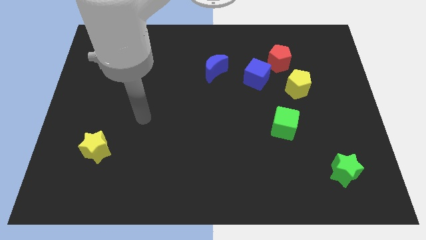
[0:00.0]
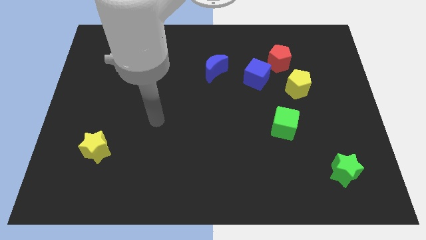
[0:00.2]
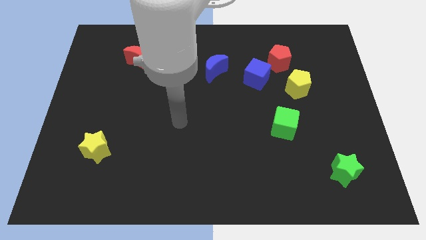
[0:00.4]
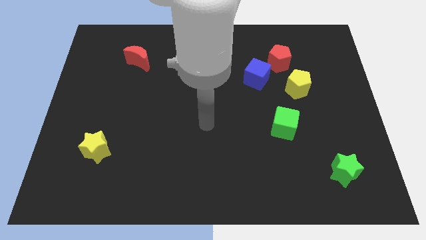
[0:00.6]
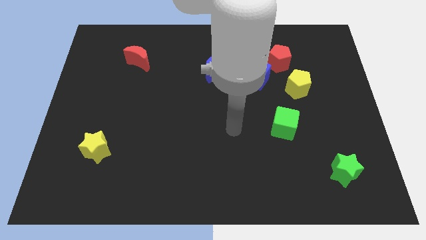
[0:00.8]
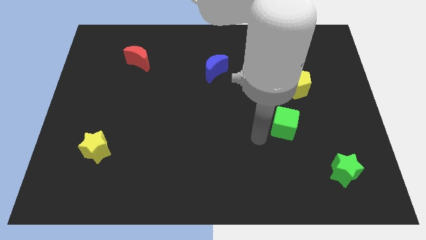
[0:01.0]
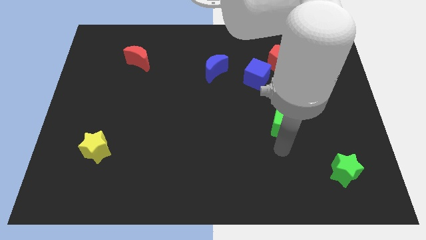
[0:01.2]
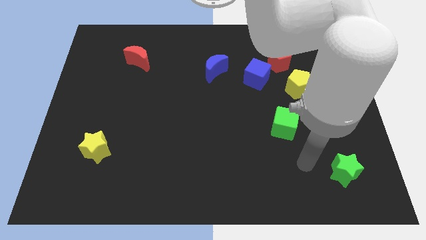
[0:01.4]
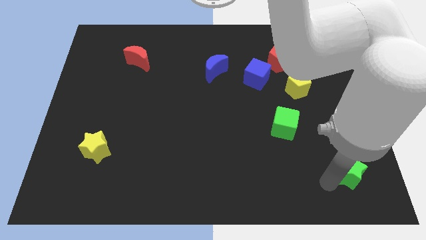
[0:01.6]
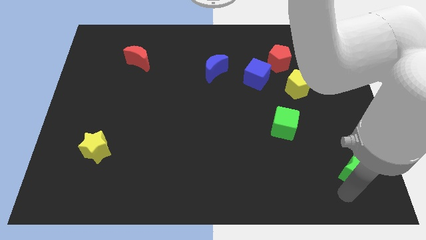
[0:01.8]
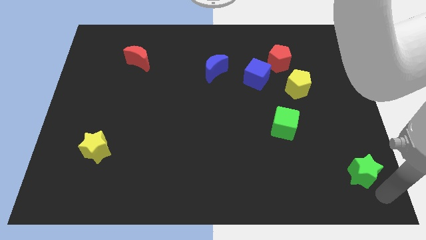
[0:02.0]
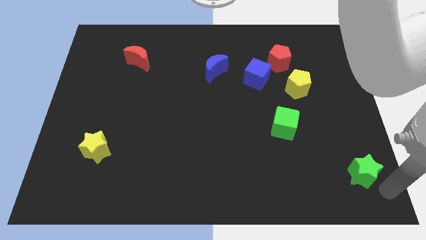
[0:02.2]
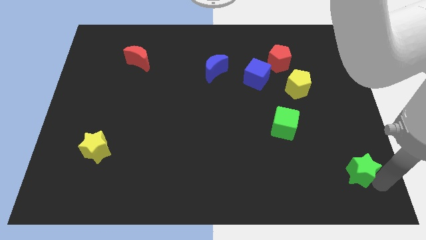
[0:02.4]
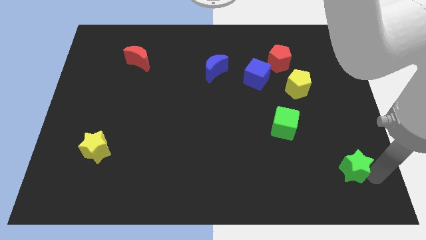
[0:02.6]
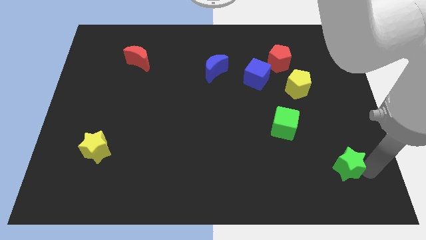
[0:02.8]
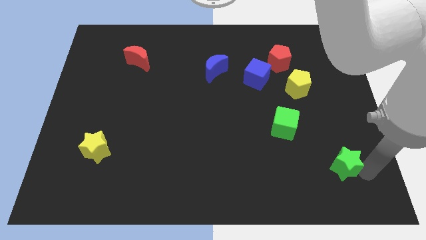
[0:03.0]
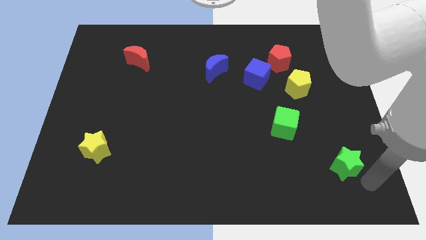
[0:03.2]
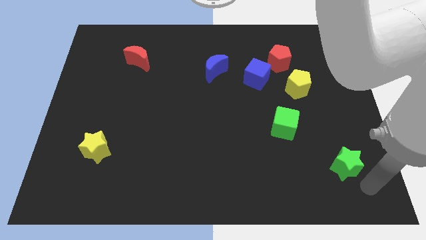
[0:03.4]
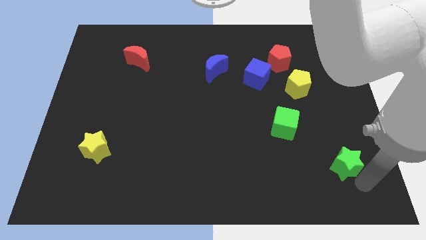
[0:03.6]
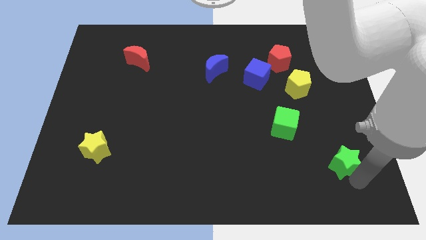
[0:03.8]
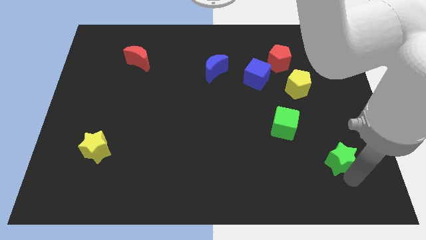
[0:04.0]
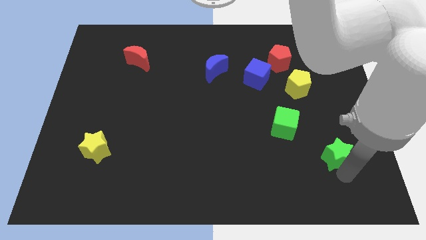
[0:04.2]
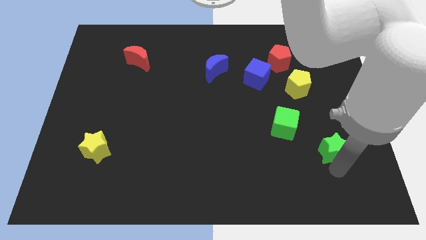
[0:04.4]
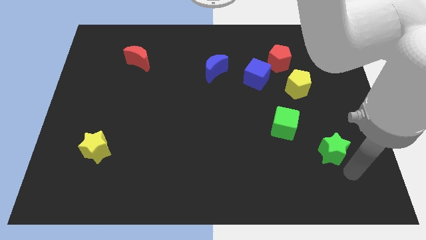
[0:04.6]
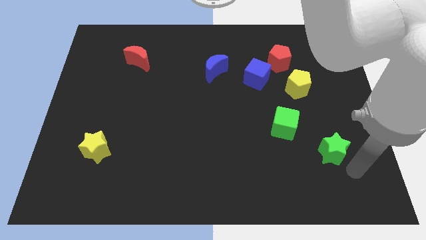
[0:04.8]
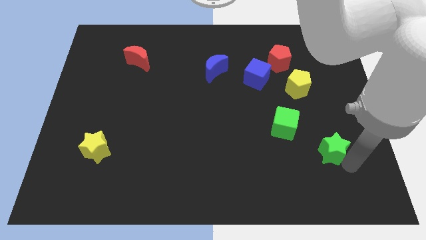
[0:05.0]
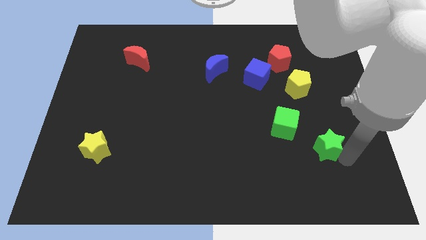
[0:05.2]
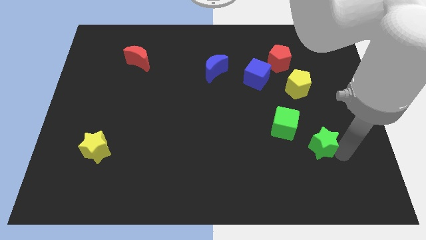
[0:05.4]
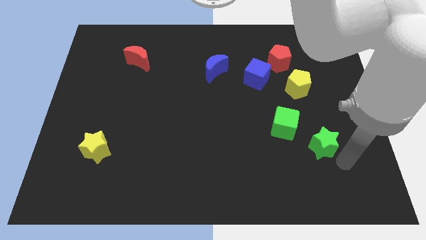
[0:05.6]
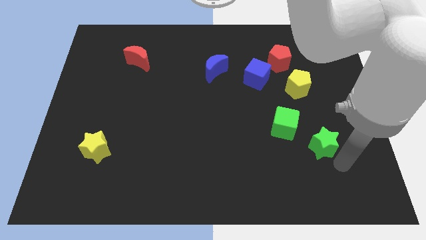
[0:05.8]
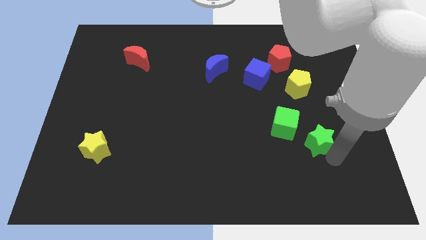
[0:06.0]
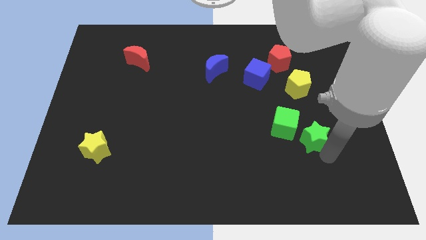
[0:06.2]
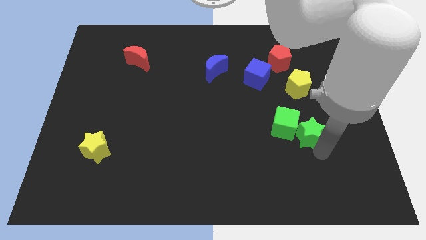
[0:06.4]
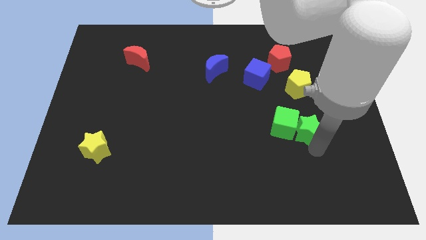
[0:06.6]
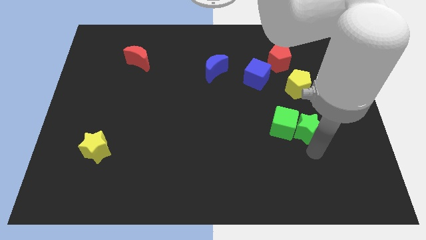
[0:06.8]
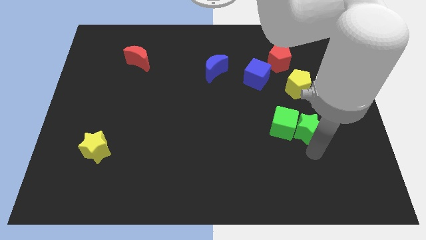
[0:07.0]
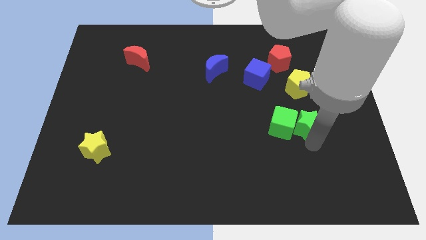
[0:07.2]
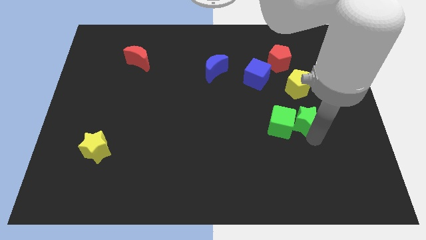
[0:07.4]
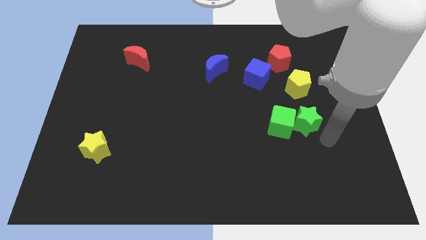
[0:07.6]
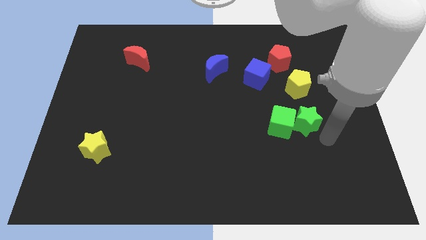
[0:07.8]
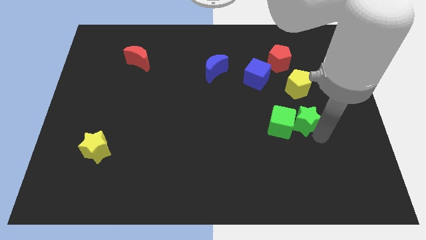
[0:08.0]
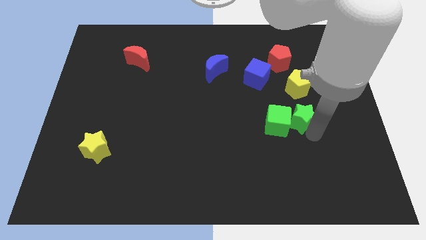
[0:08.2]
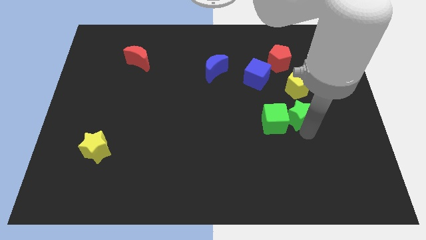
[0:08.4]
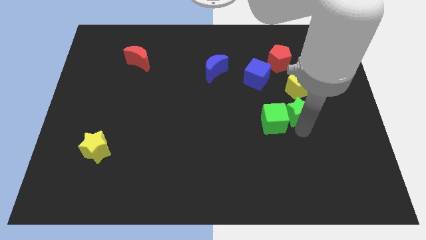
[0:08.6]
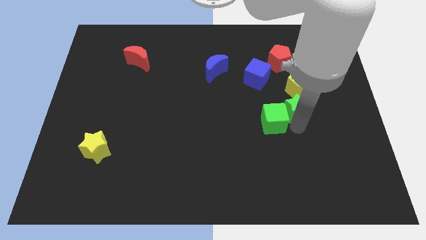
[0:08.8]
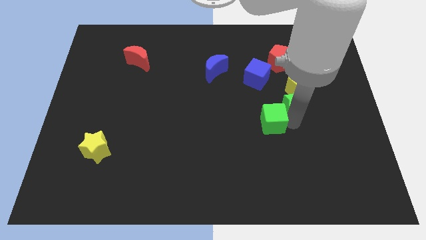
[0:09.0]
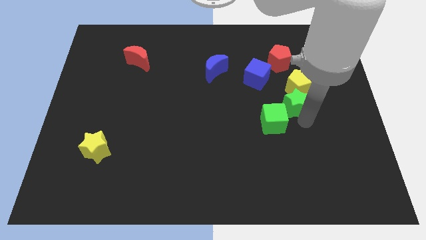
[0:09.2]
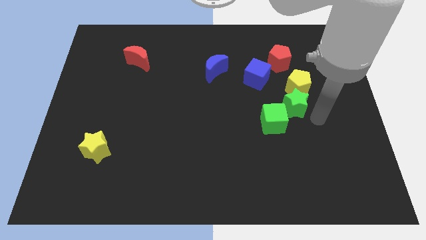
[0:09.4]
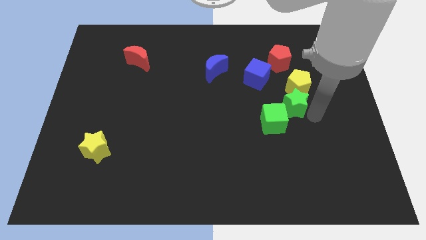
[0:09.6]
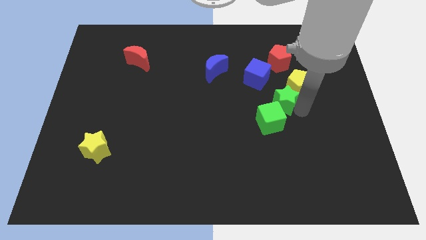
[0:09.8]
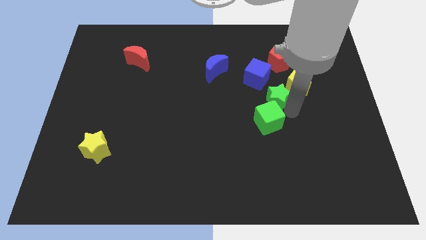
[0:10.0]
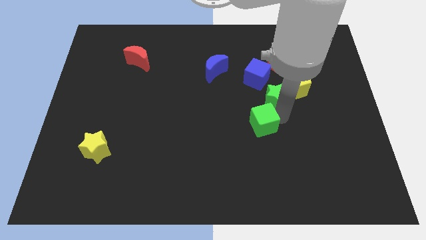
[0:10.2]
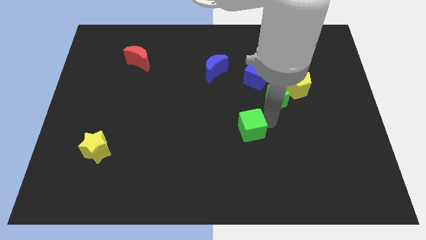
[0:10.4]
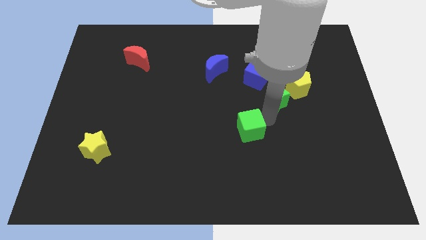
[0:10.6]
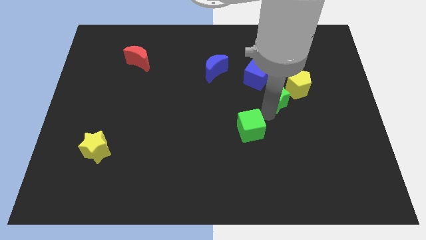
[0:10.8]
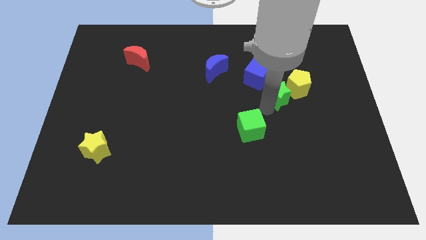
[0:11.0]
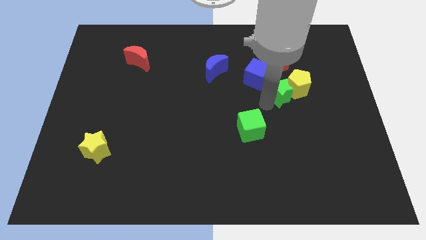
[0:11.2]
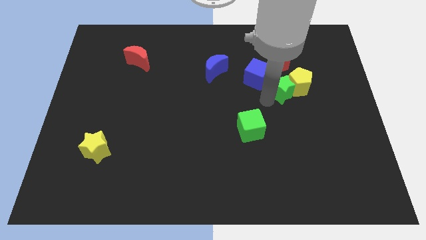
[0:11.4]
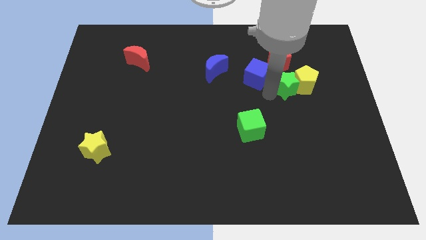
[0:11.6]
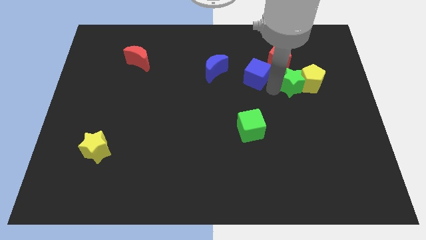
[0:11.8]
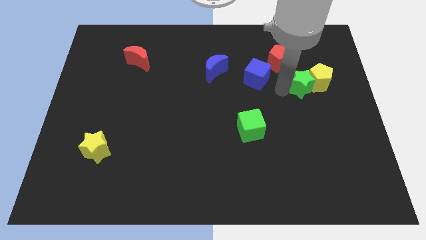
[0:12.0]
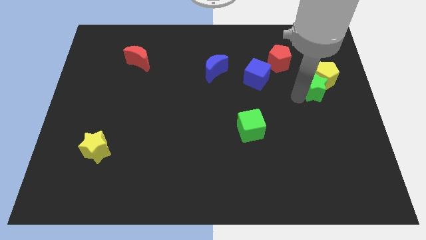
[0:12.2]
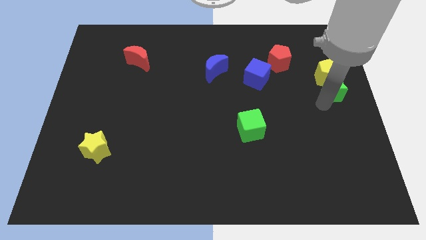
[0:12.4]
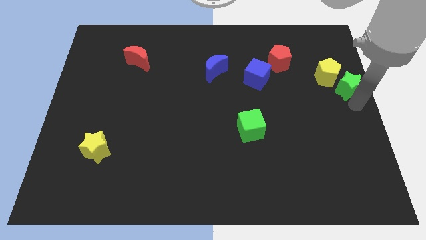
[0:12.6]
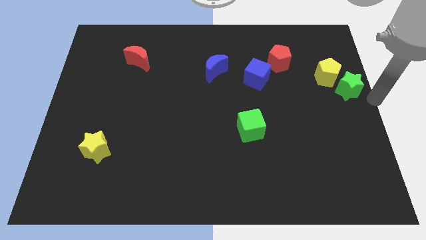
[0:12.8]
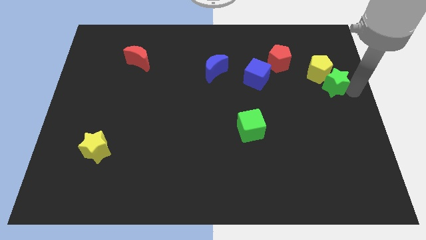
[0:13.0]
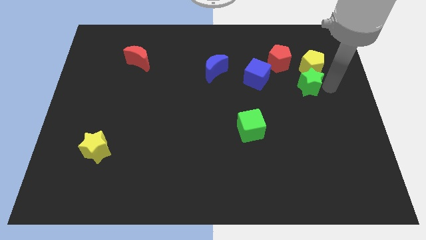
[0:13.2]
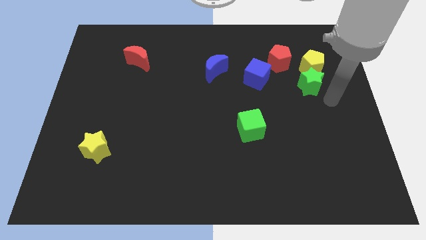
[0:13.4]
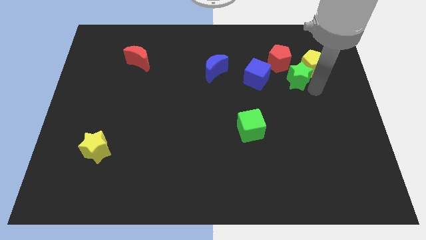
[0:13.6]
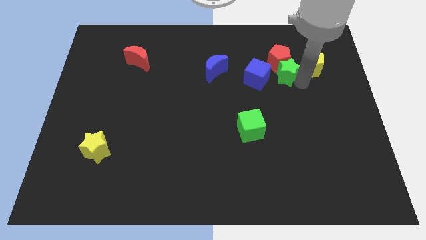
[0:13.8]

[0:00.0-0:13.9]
push the green star next to the red pentagon

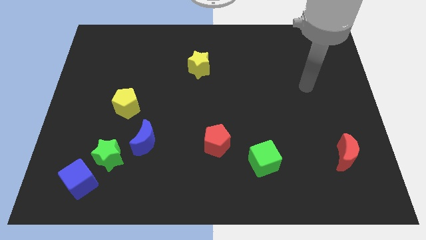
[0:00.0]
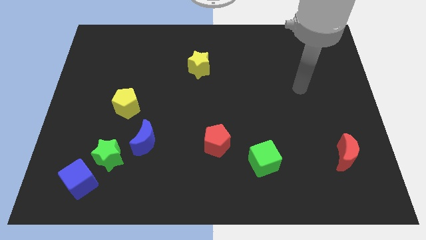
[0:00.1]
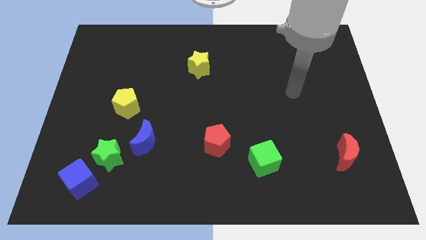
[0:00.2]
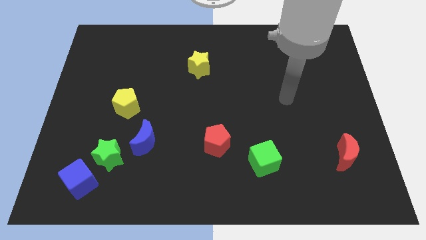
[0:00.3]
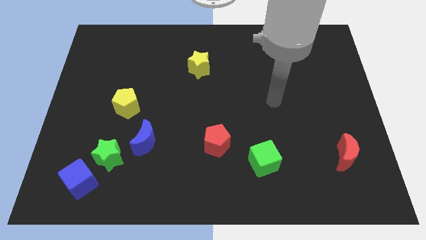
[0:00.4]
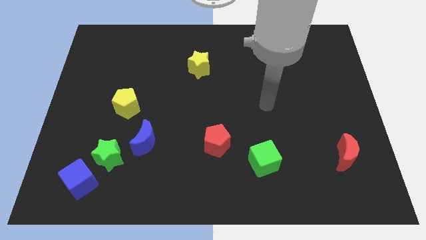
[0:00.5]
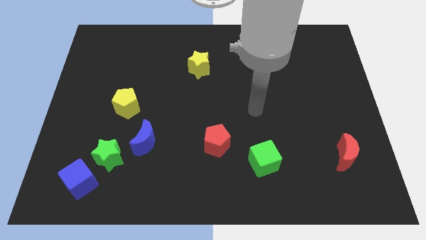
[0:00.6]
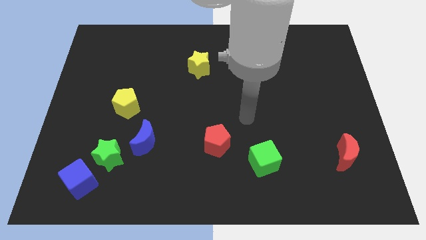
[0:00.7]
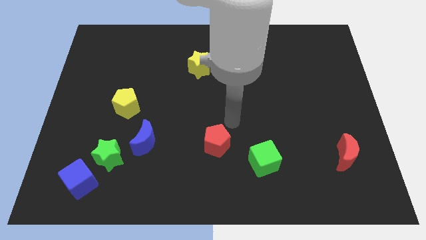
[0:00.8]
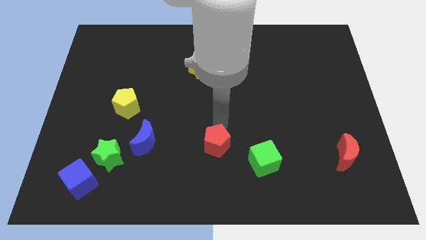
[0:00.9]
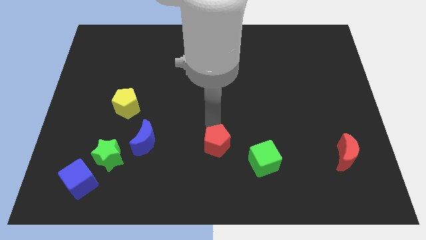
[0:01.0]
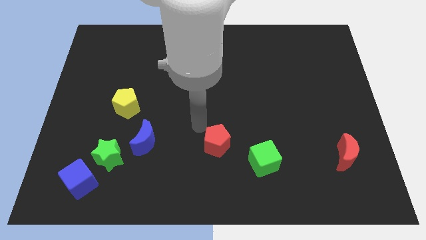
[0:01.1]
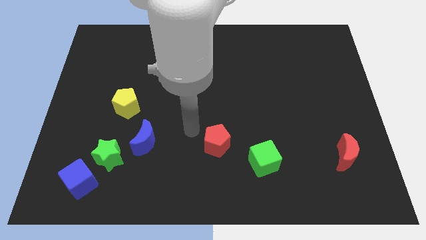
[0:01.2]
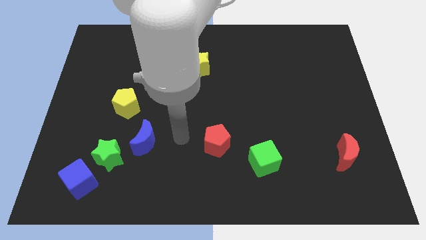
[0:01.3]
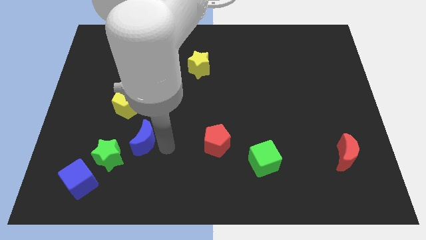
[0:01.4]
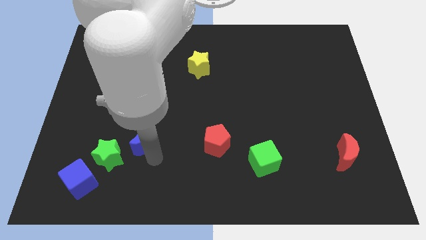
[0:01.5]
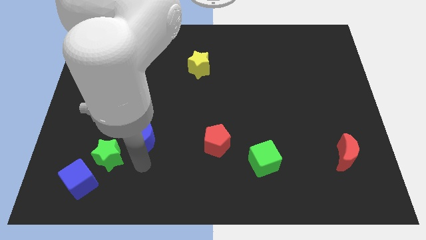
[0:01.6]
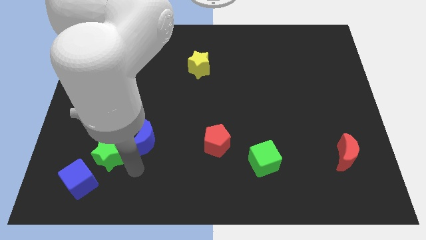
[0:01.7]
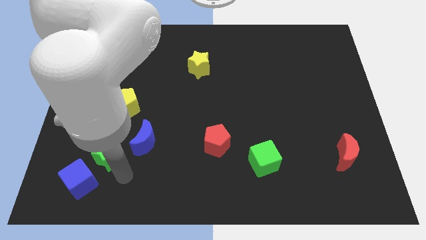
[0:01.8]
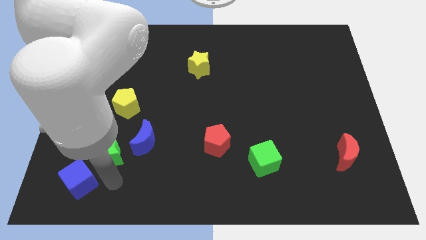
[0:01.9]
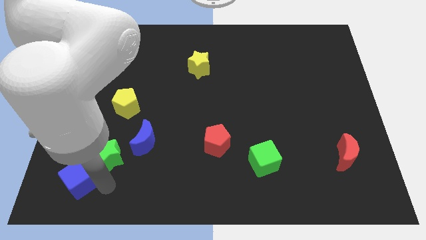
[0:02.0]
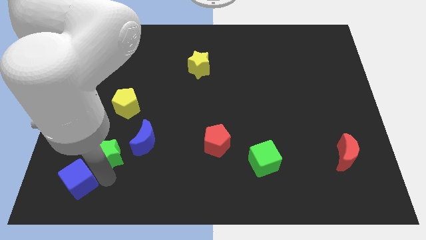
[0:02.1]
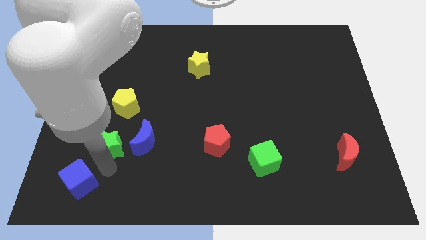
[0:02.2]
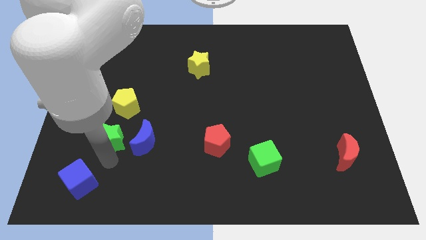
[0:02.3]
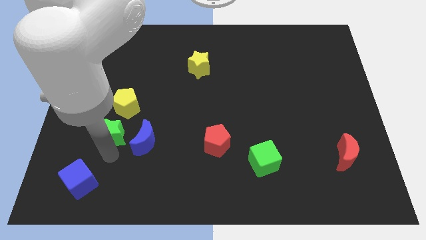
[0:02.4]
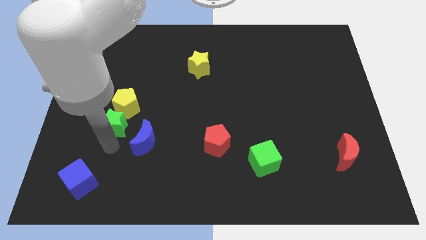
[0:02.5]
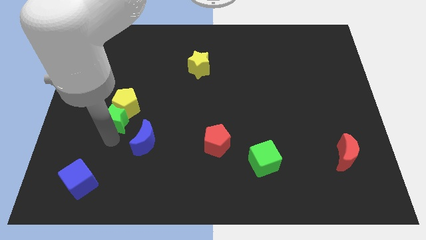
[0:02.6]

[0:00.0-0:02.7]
push the green star close to the yellow pentagon
